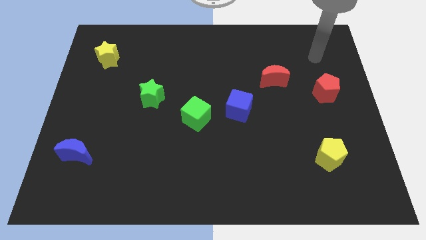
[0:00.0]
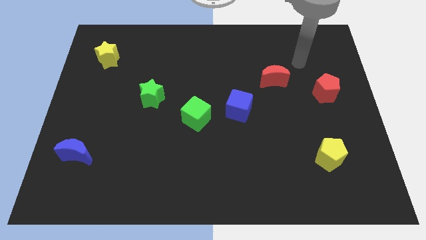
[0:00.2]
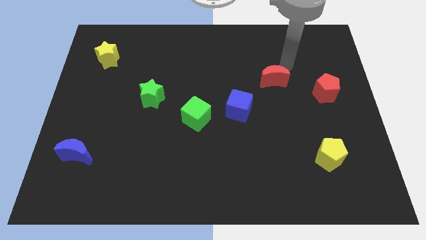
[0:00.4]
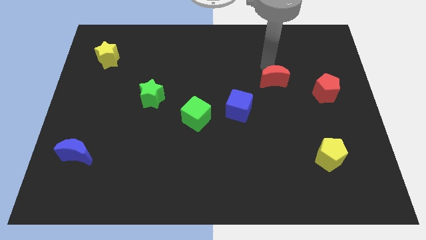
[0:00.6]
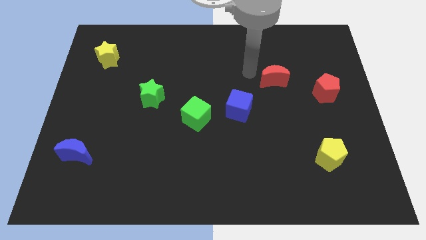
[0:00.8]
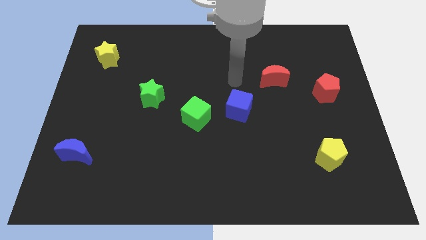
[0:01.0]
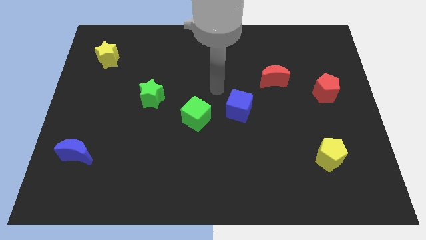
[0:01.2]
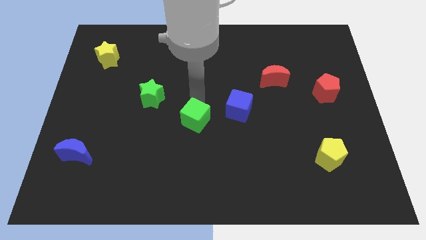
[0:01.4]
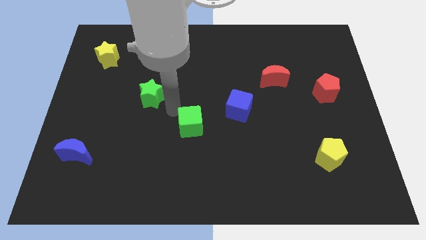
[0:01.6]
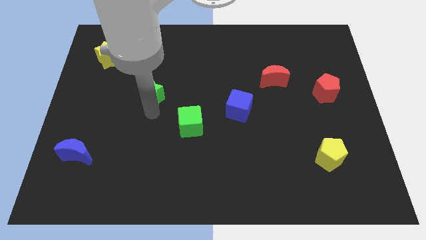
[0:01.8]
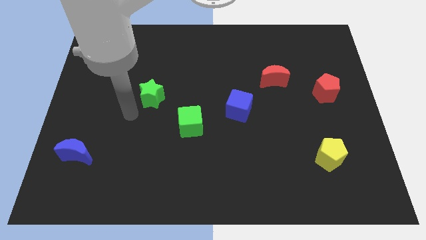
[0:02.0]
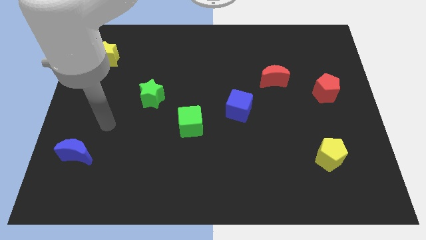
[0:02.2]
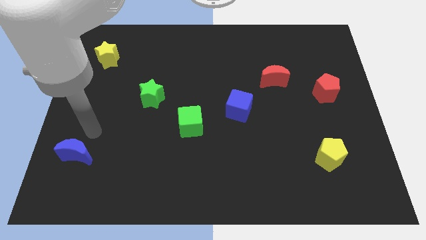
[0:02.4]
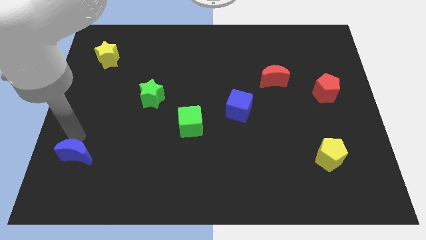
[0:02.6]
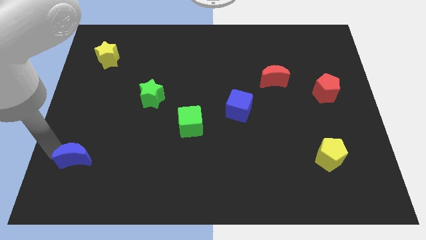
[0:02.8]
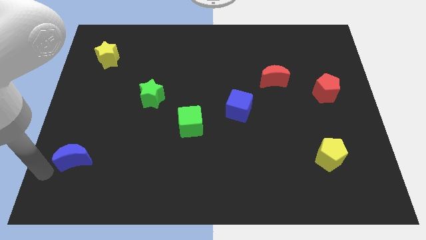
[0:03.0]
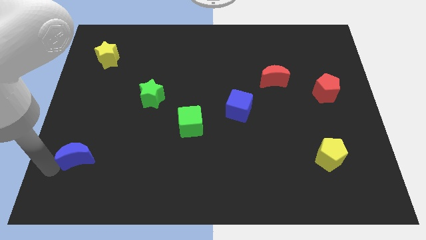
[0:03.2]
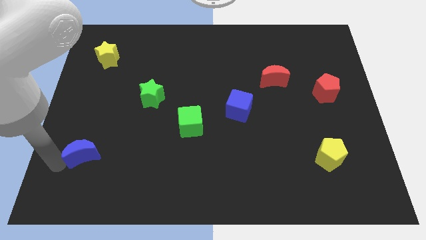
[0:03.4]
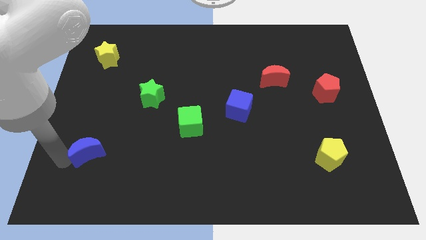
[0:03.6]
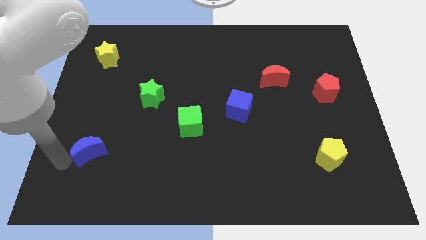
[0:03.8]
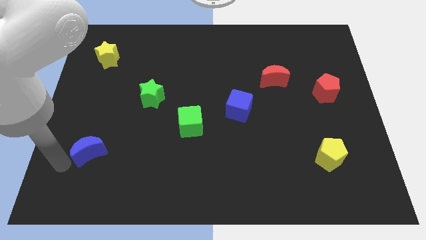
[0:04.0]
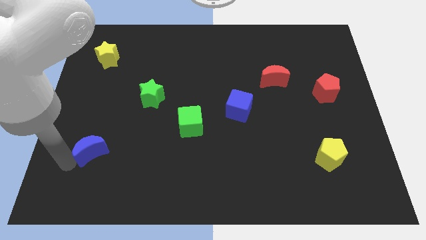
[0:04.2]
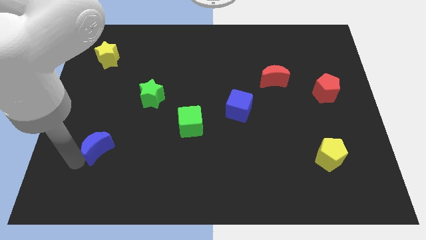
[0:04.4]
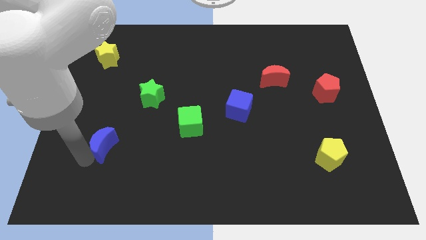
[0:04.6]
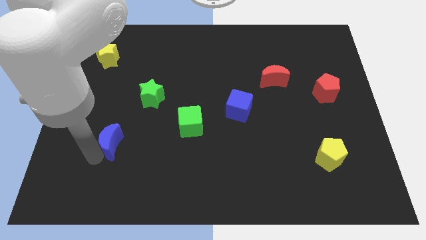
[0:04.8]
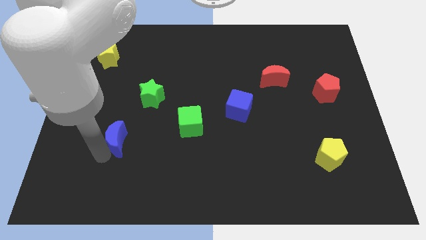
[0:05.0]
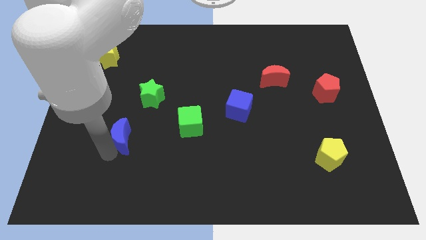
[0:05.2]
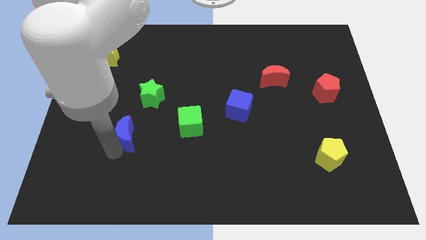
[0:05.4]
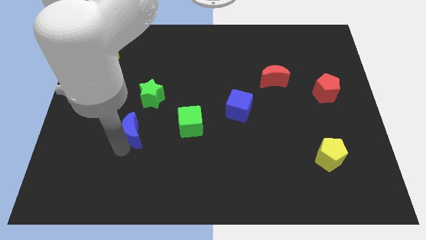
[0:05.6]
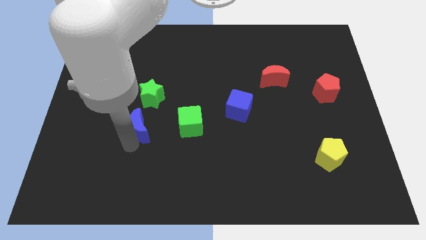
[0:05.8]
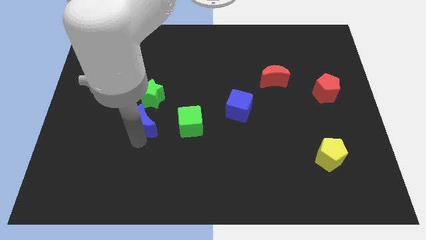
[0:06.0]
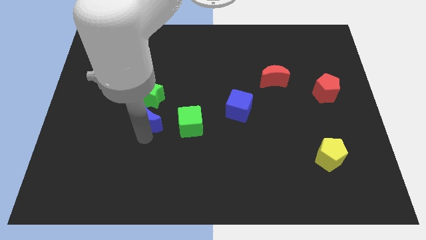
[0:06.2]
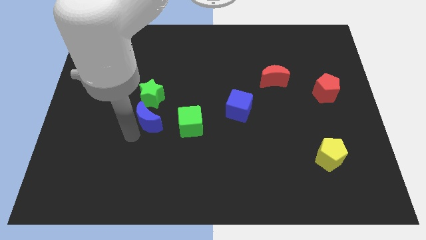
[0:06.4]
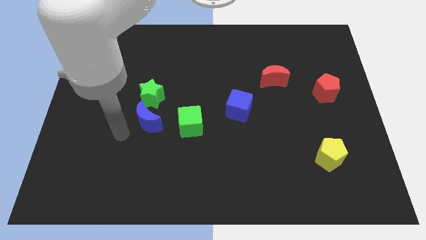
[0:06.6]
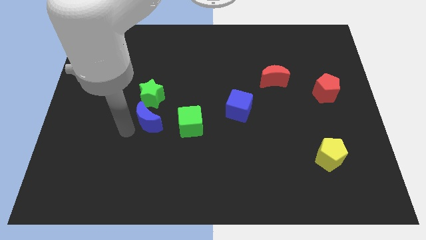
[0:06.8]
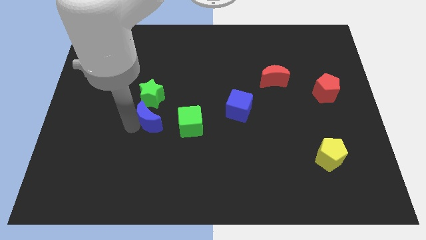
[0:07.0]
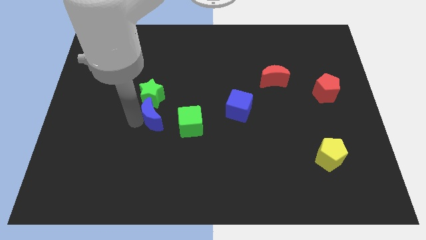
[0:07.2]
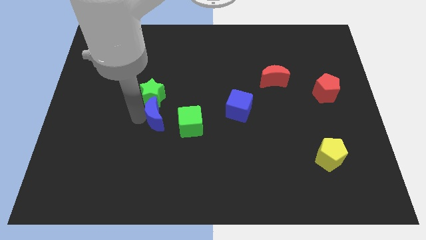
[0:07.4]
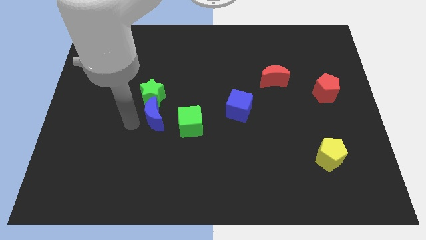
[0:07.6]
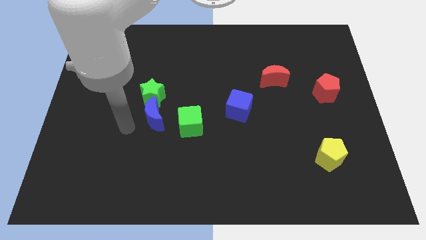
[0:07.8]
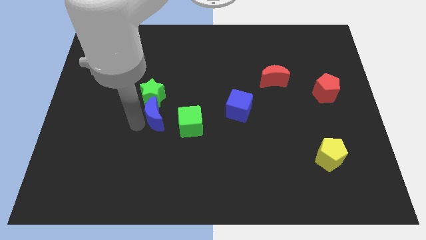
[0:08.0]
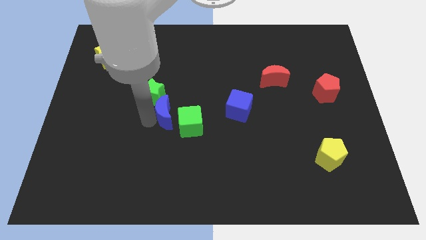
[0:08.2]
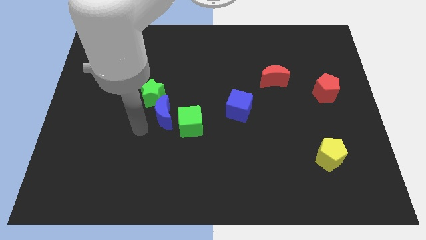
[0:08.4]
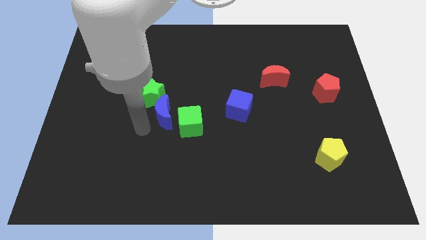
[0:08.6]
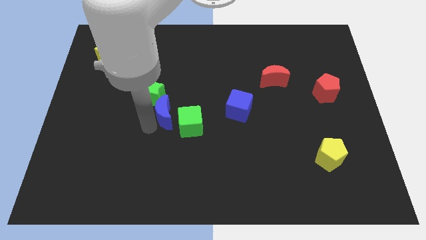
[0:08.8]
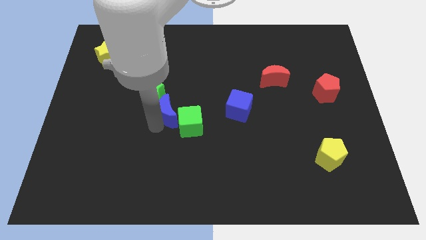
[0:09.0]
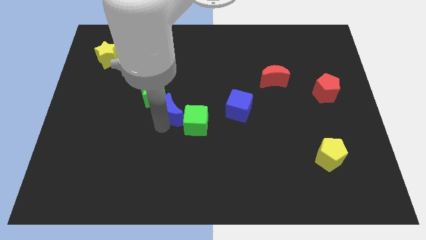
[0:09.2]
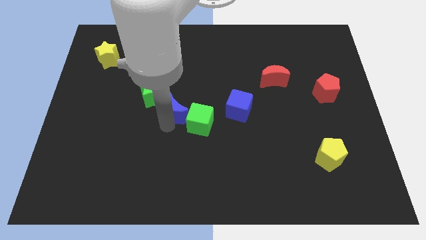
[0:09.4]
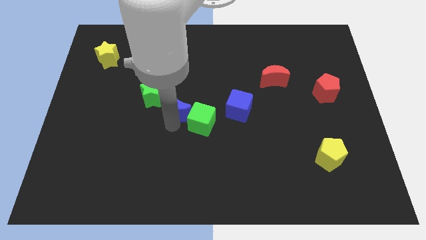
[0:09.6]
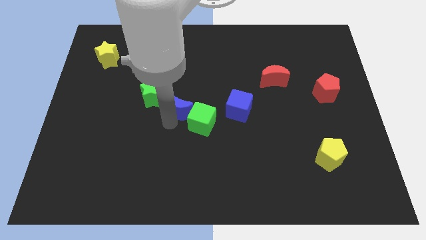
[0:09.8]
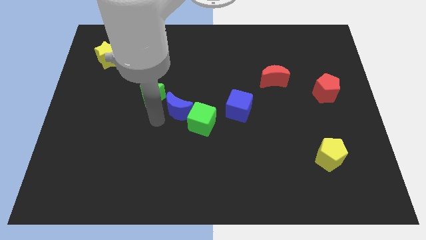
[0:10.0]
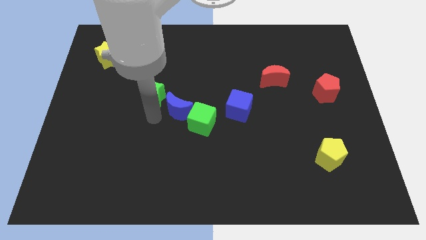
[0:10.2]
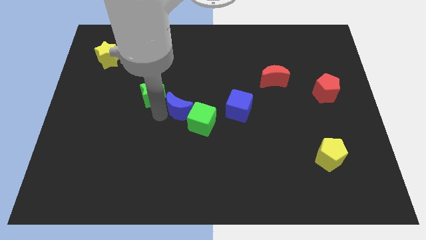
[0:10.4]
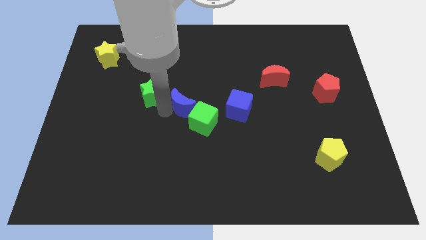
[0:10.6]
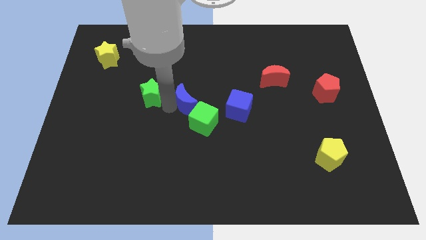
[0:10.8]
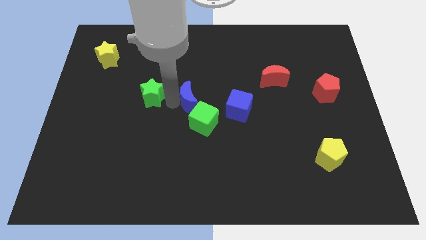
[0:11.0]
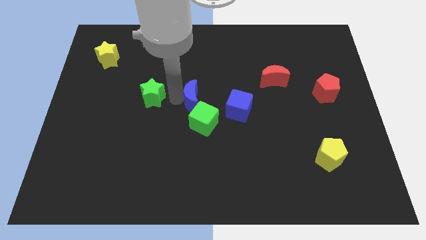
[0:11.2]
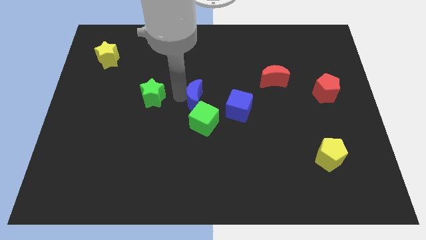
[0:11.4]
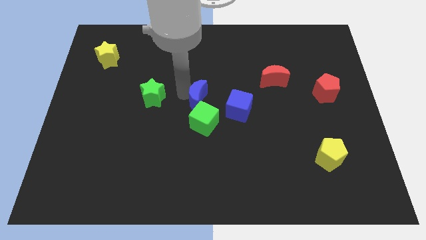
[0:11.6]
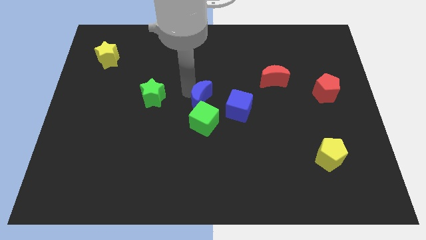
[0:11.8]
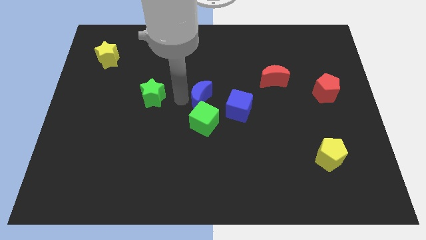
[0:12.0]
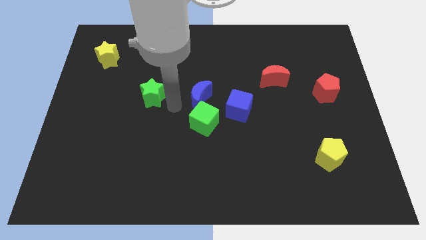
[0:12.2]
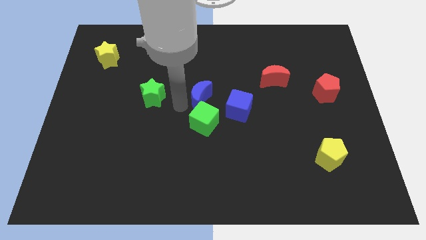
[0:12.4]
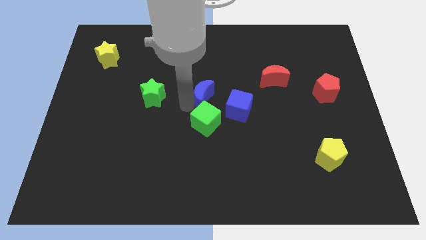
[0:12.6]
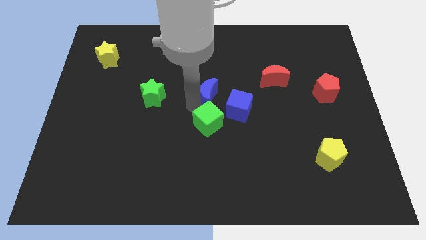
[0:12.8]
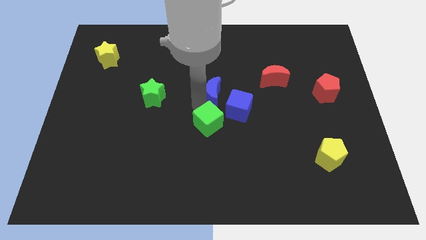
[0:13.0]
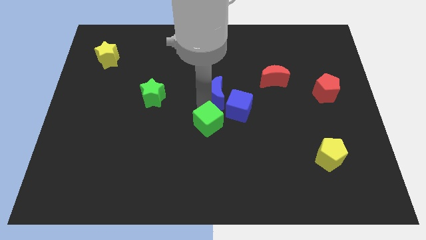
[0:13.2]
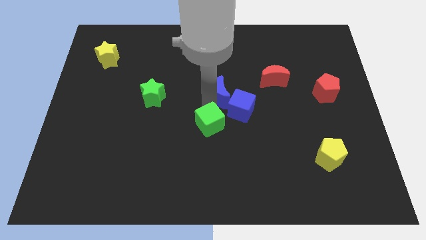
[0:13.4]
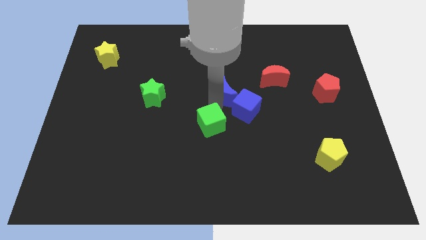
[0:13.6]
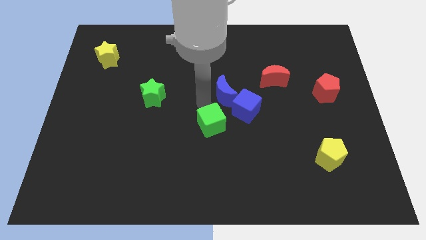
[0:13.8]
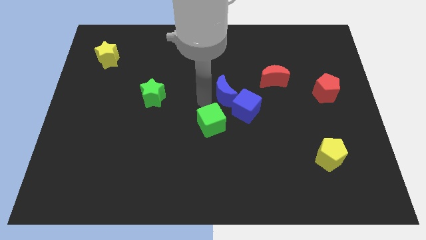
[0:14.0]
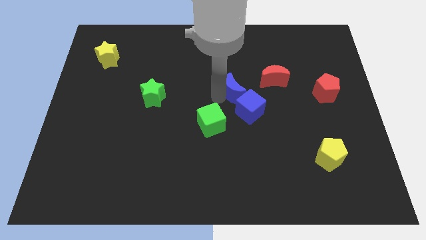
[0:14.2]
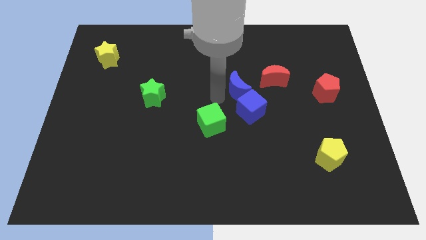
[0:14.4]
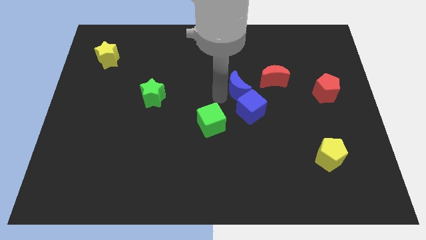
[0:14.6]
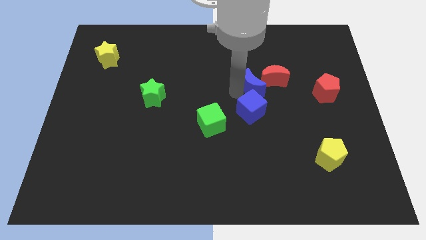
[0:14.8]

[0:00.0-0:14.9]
move the blue moon next to the red moon
